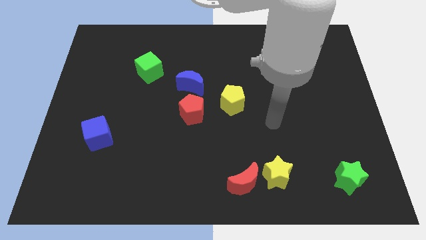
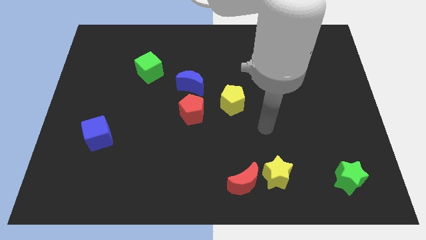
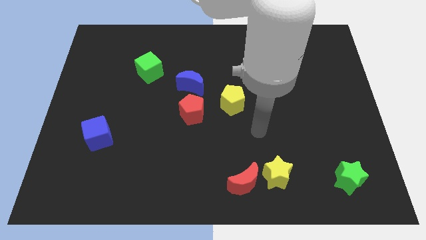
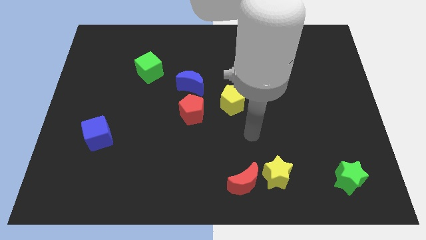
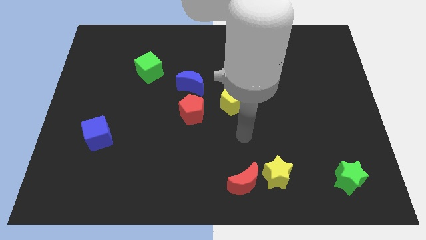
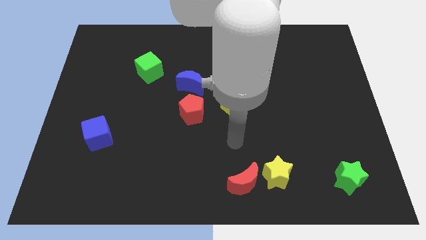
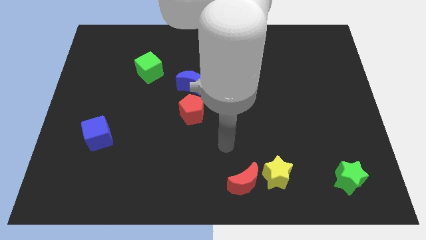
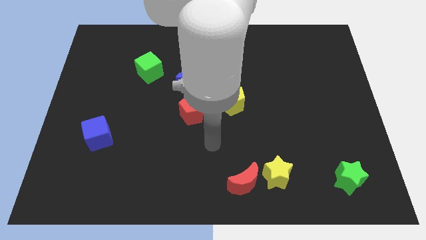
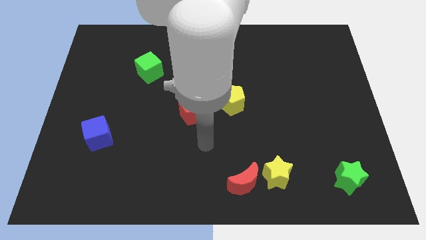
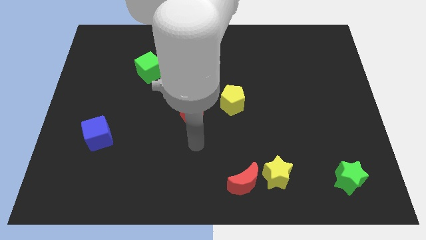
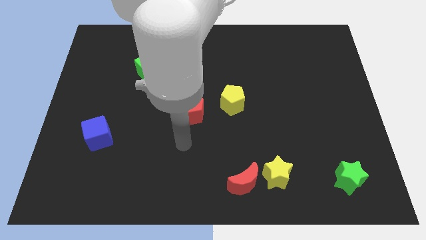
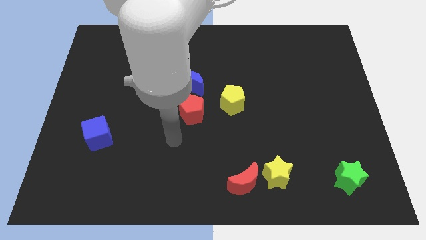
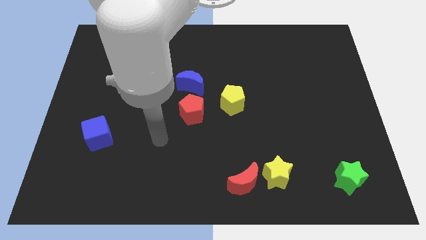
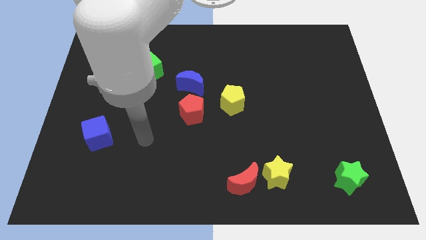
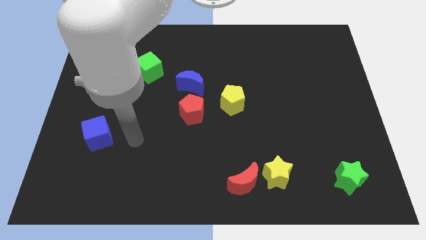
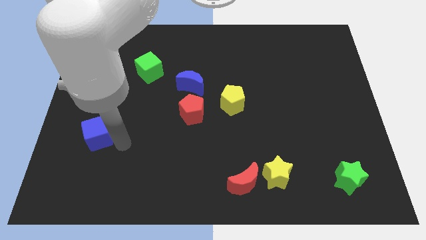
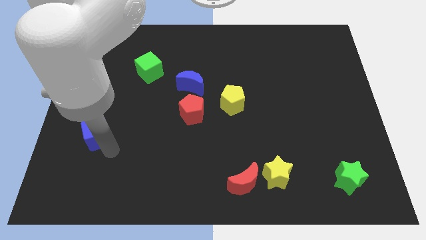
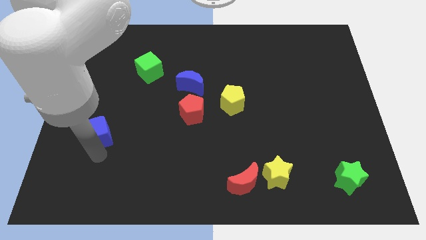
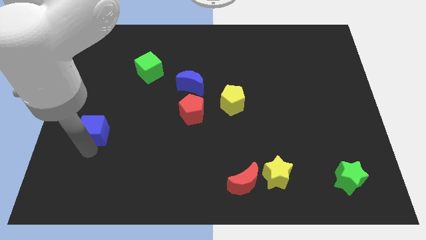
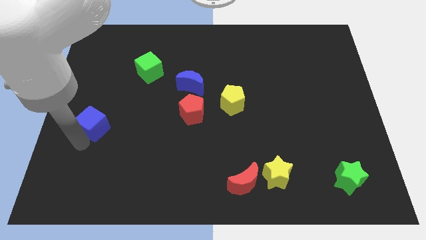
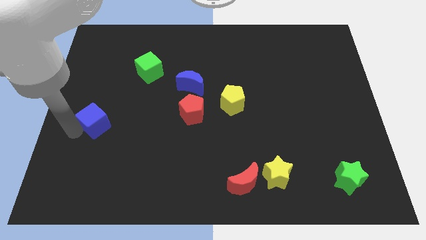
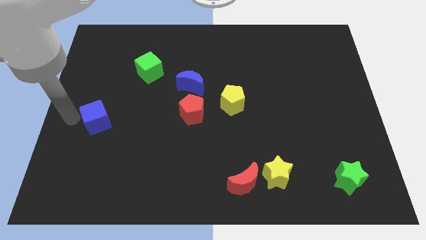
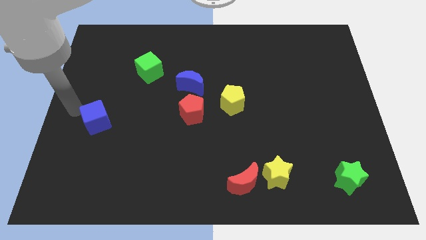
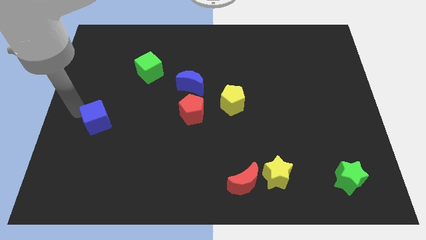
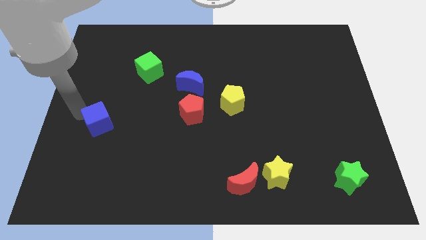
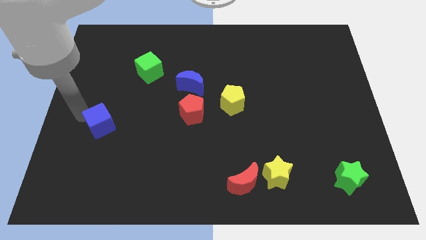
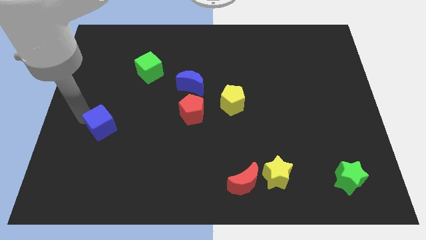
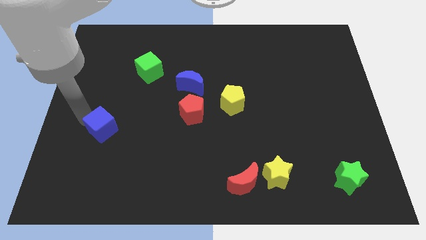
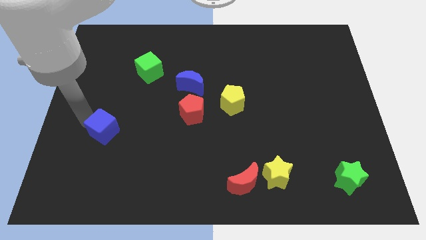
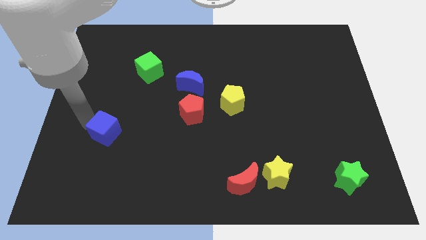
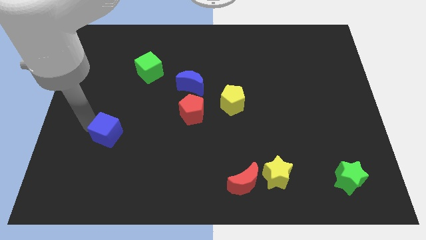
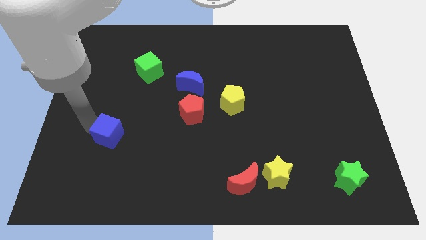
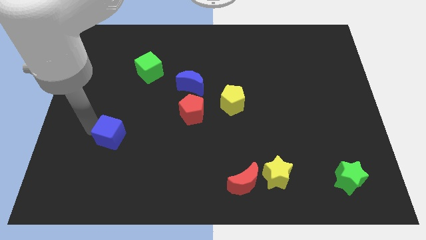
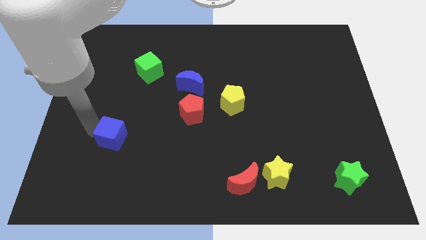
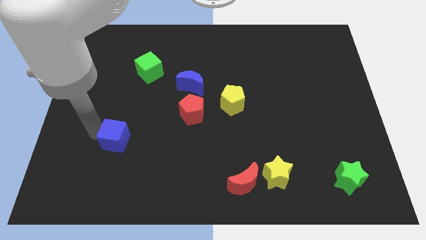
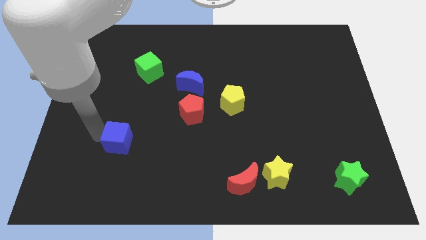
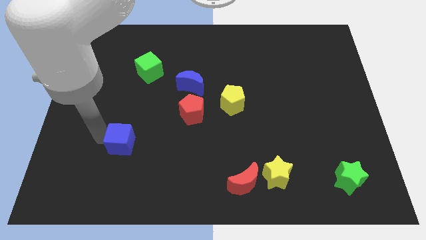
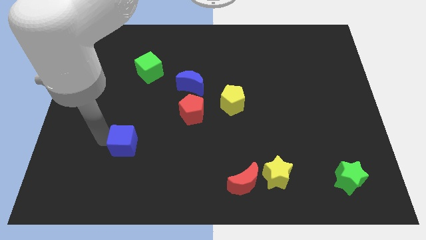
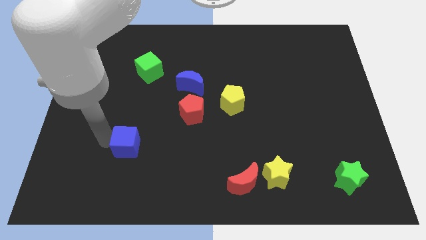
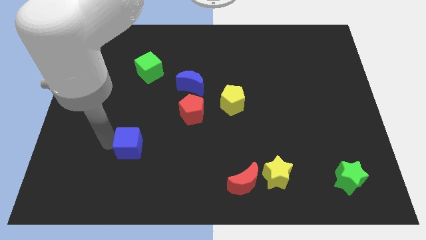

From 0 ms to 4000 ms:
slide the blue cube somewhat to the right

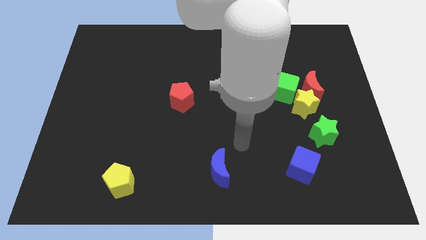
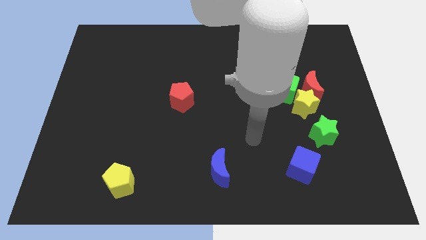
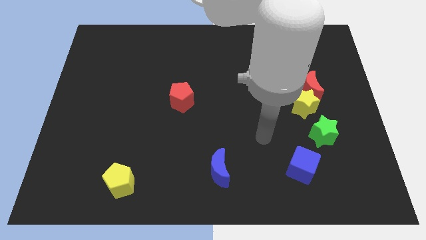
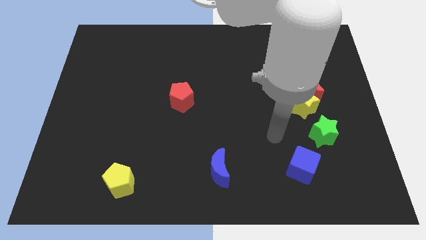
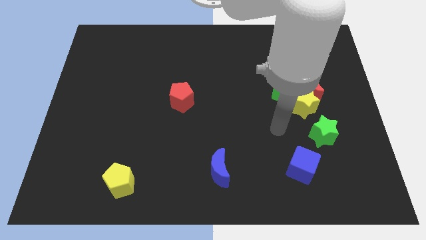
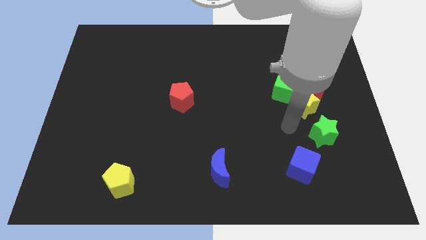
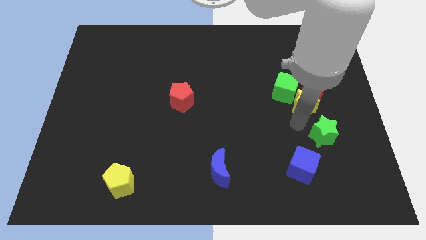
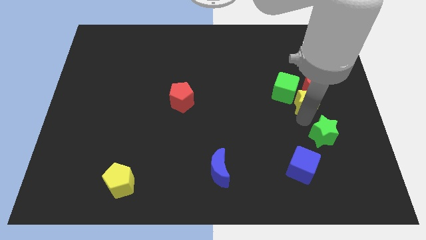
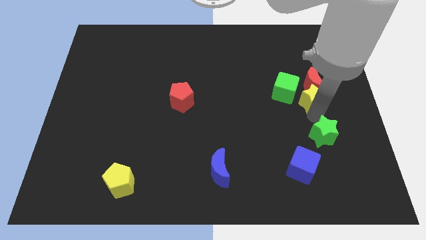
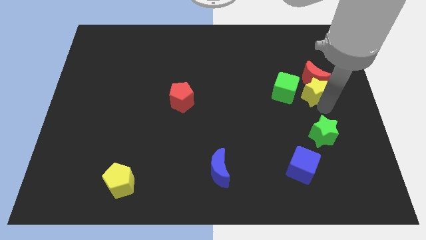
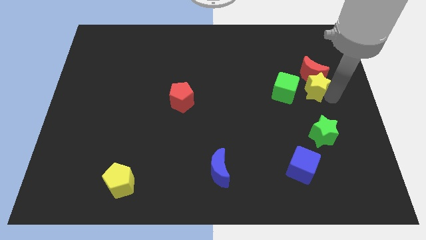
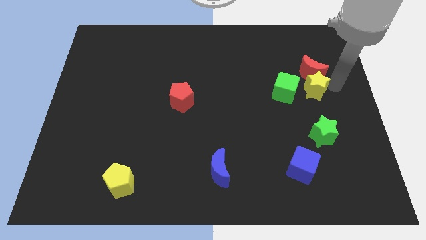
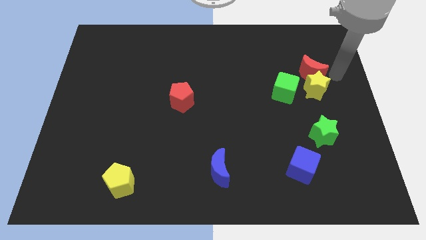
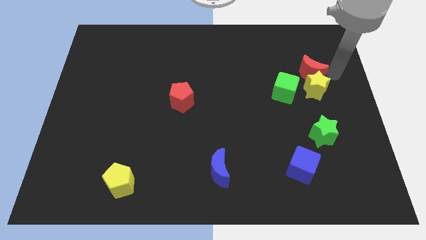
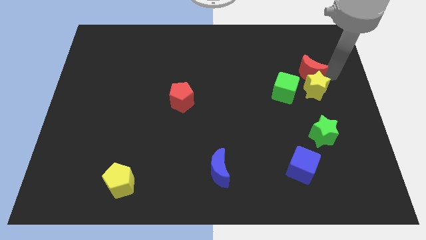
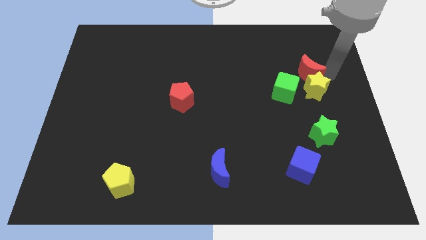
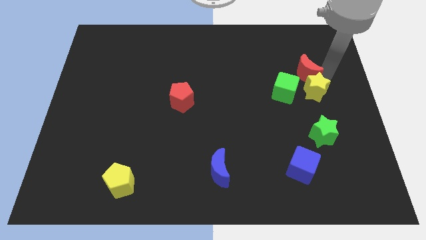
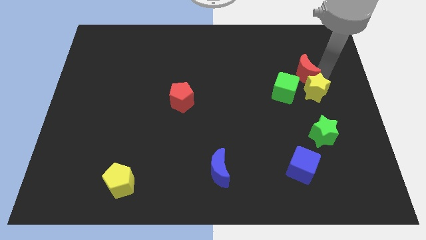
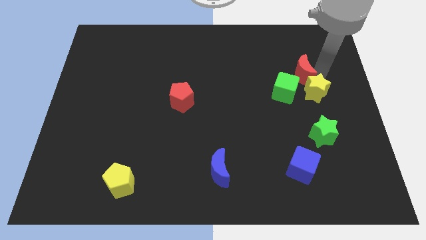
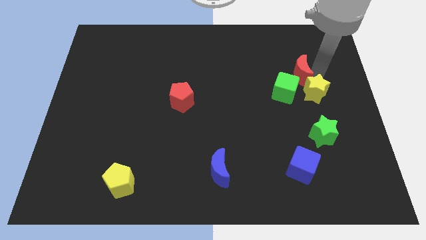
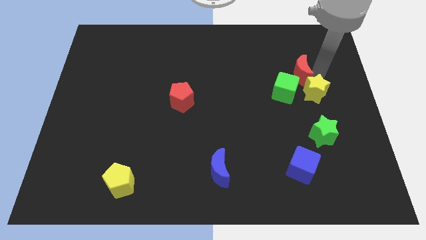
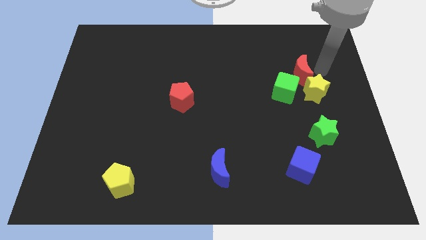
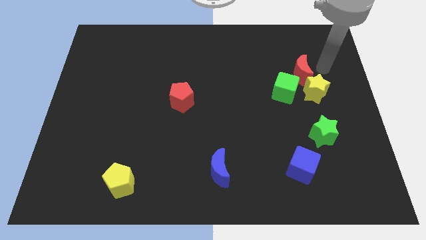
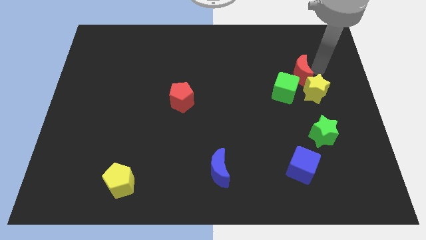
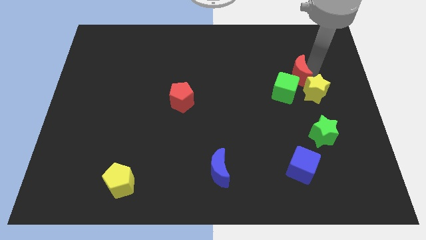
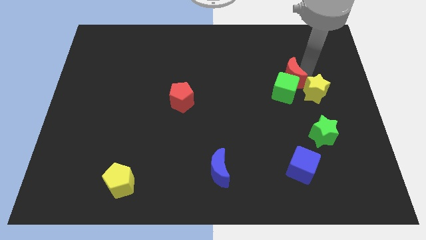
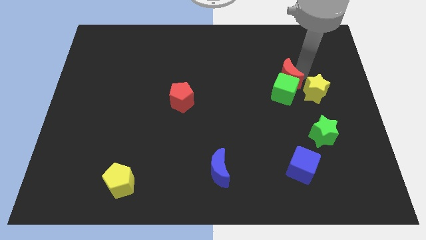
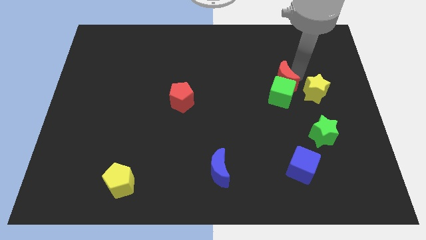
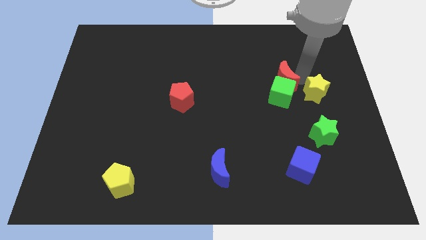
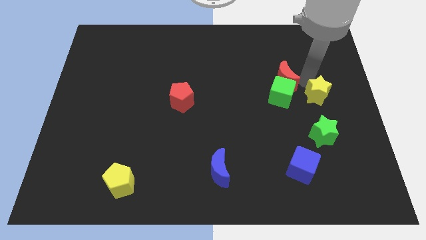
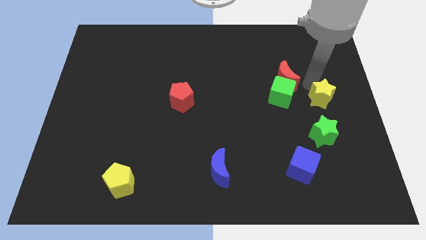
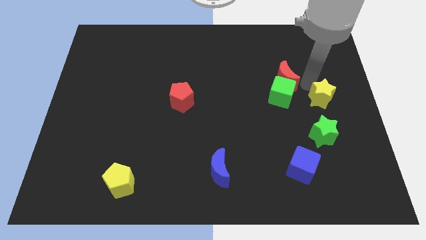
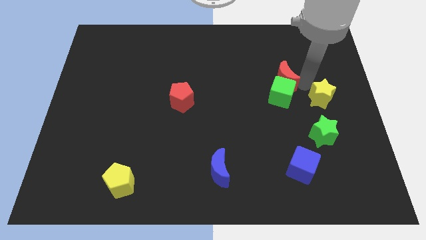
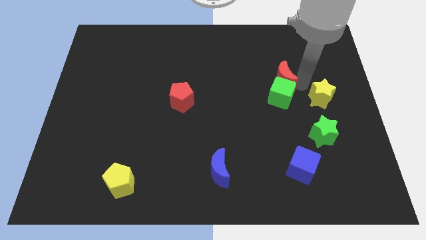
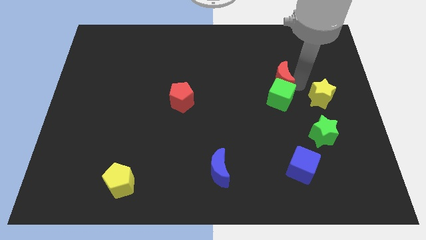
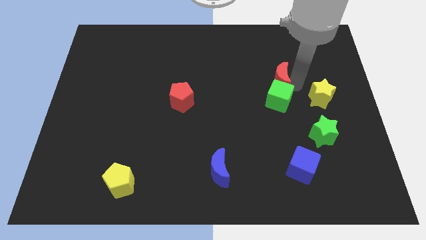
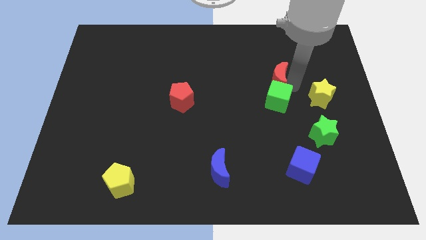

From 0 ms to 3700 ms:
push the red moon a little bit to the left

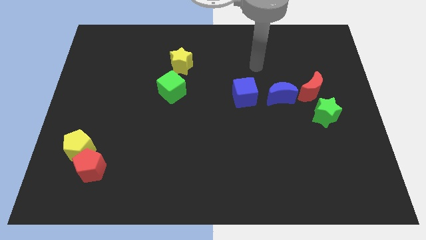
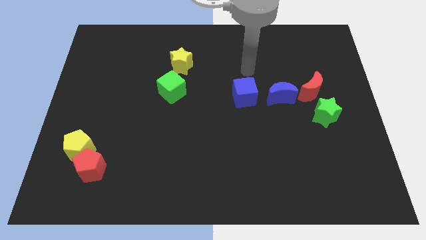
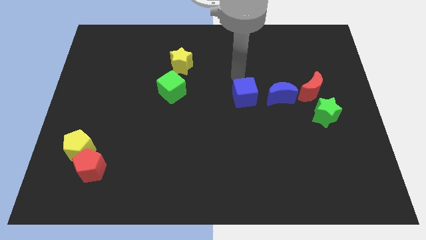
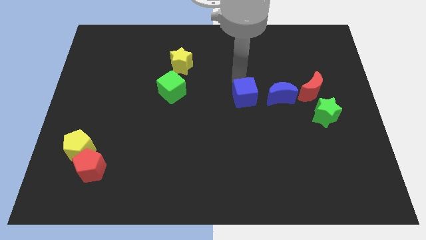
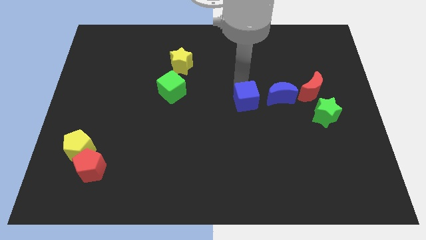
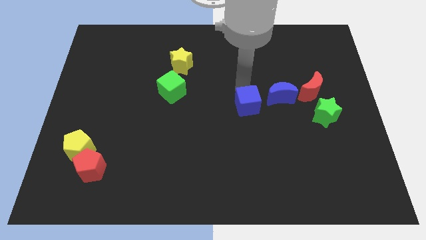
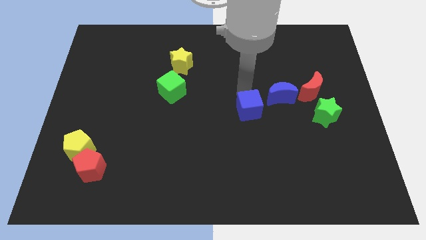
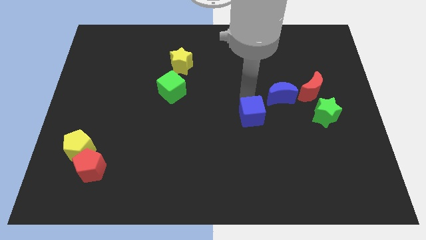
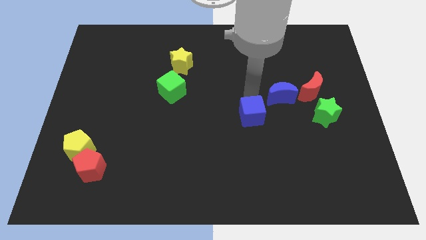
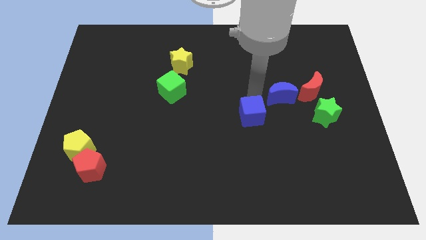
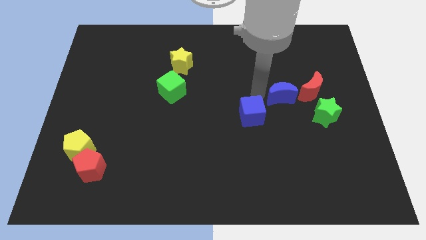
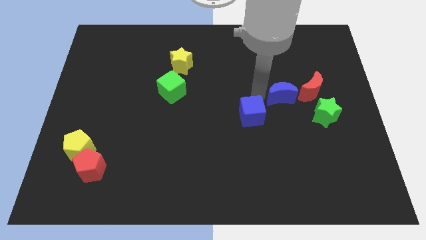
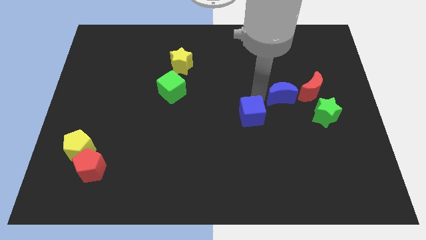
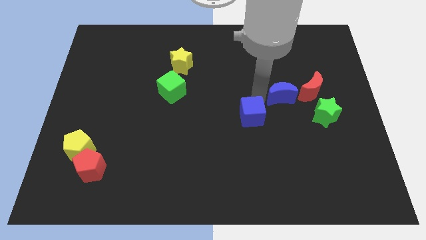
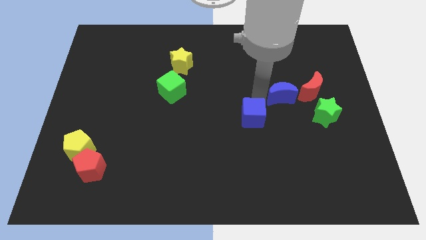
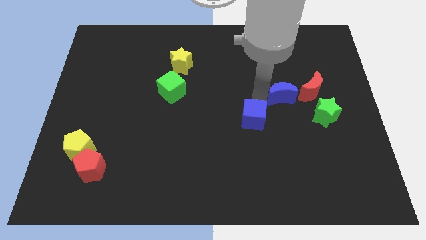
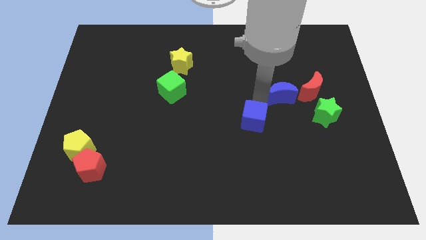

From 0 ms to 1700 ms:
slightly slide the blue cube downwards
